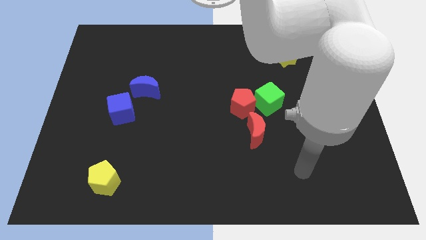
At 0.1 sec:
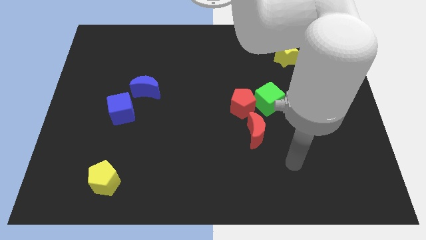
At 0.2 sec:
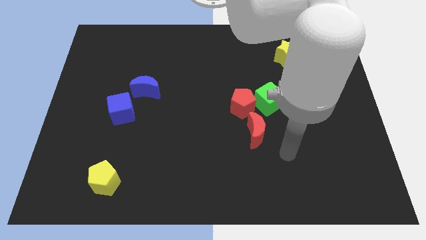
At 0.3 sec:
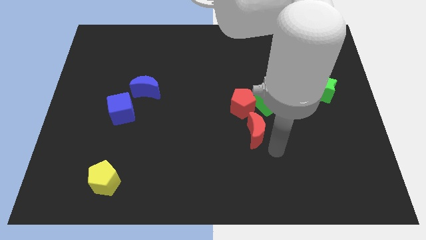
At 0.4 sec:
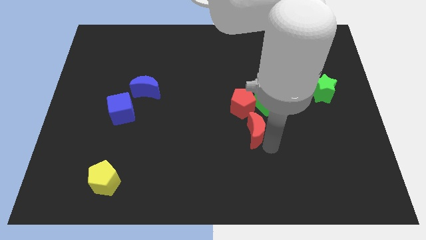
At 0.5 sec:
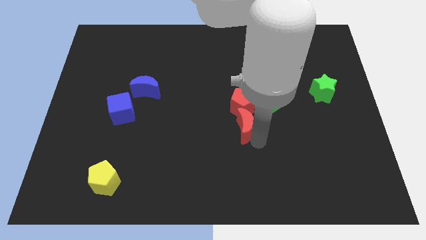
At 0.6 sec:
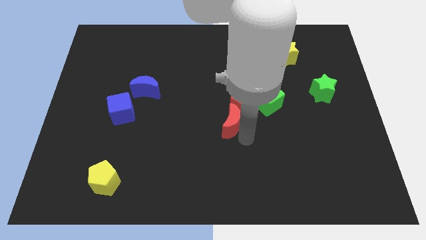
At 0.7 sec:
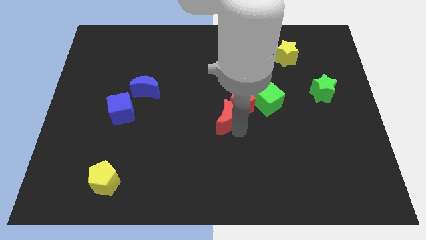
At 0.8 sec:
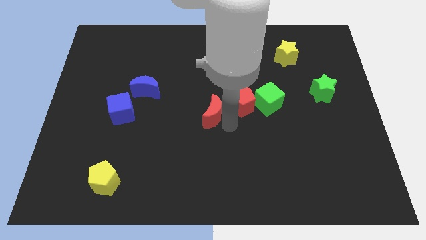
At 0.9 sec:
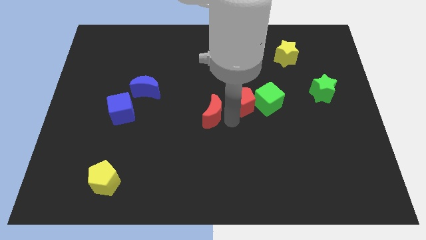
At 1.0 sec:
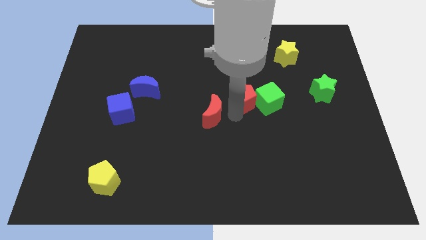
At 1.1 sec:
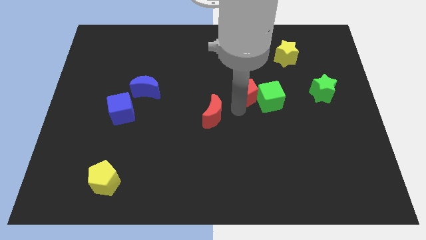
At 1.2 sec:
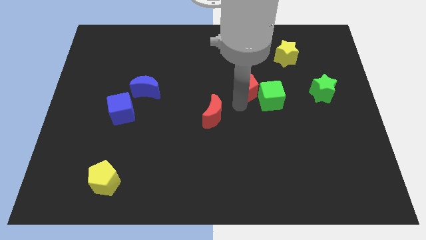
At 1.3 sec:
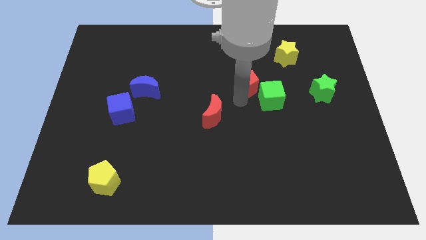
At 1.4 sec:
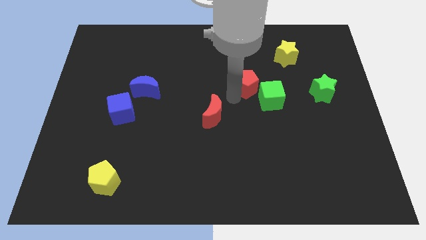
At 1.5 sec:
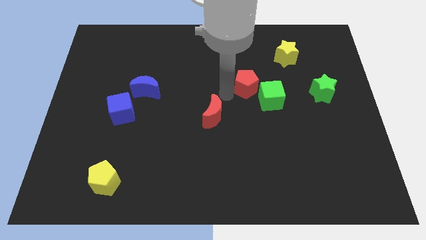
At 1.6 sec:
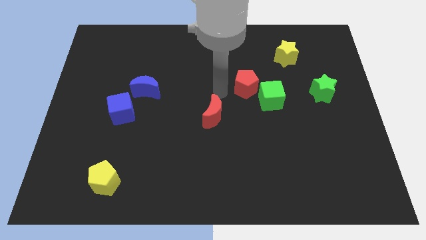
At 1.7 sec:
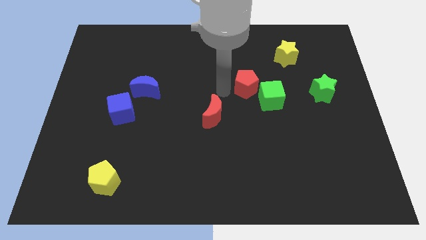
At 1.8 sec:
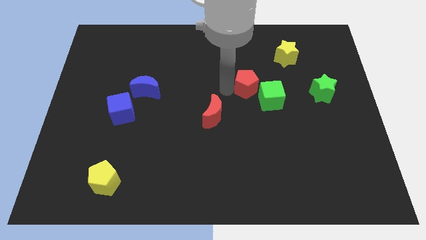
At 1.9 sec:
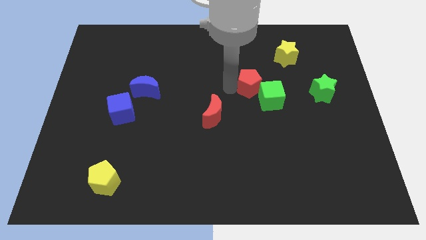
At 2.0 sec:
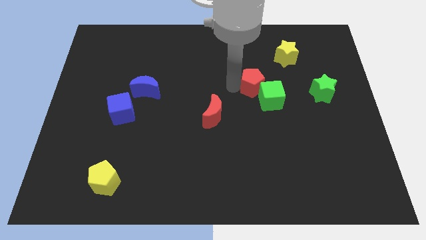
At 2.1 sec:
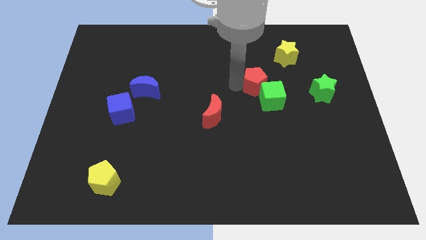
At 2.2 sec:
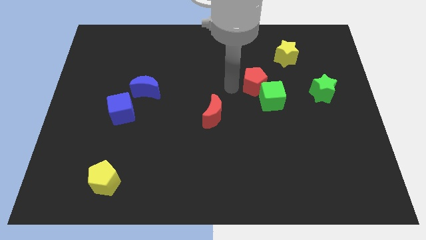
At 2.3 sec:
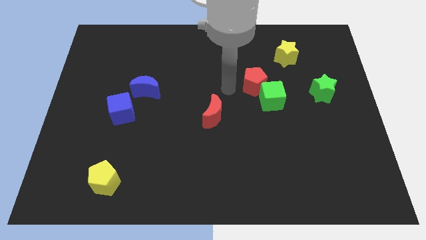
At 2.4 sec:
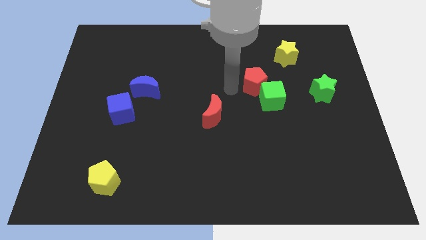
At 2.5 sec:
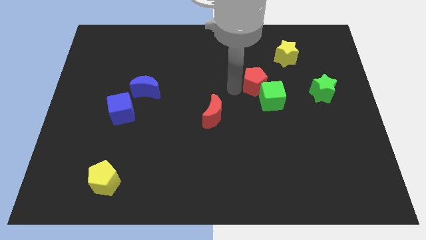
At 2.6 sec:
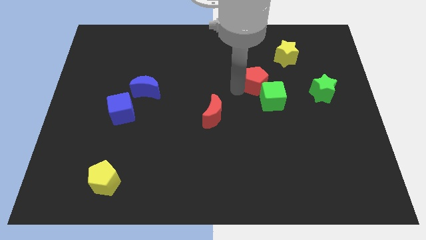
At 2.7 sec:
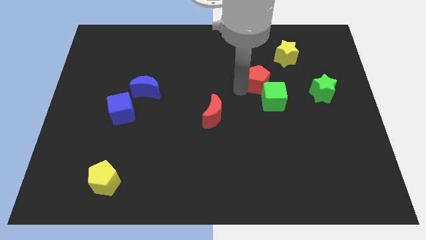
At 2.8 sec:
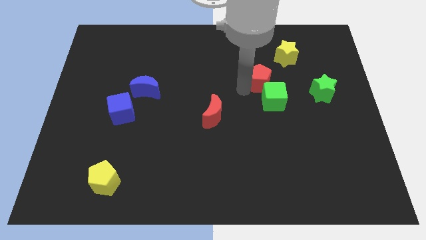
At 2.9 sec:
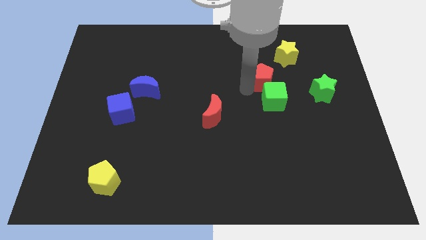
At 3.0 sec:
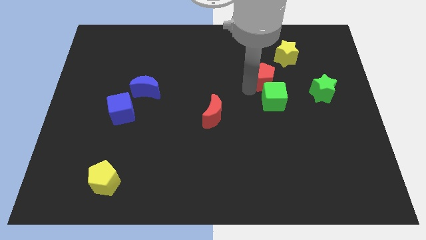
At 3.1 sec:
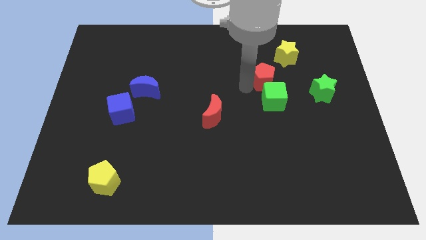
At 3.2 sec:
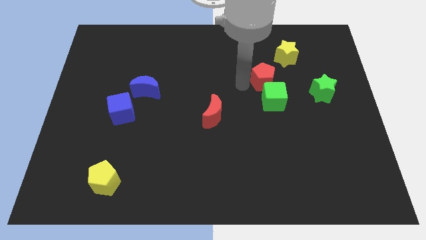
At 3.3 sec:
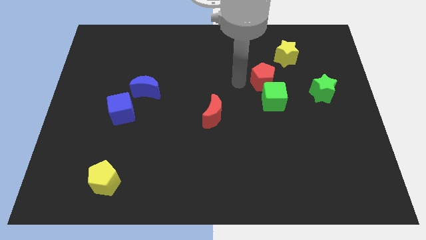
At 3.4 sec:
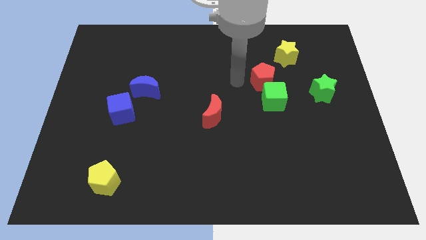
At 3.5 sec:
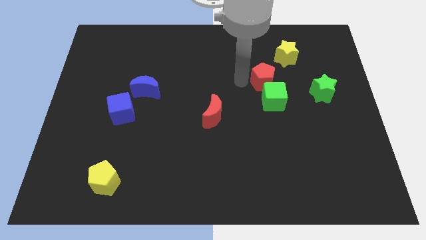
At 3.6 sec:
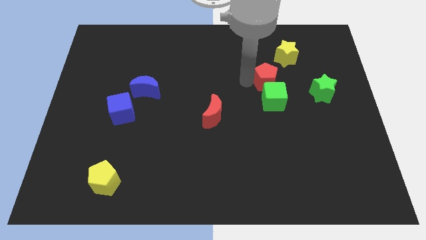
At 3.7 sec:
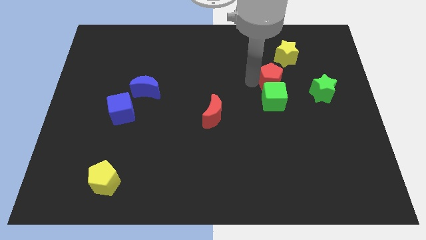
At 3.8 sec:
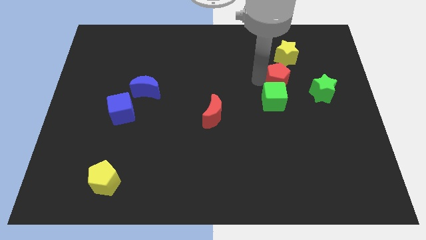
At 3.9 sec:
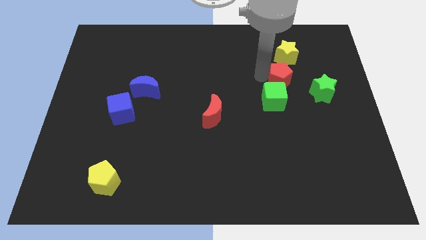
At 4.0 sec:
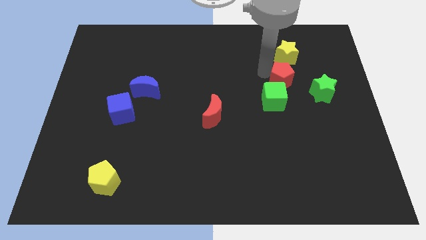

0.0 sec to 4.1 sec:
slide the red pentagon slightly to the right

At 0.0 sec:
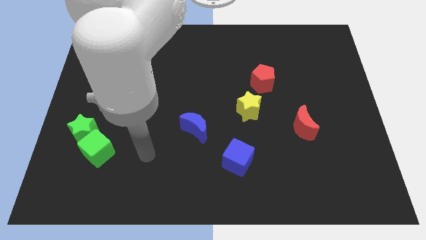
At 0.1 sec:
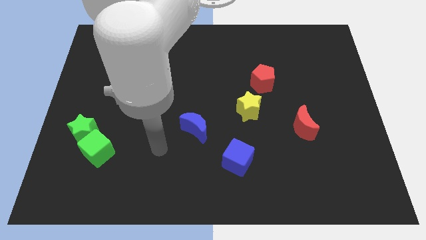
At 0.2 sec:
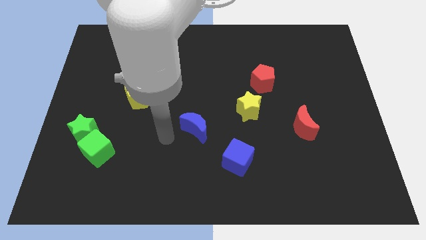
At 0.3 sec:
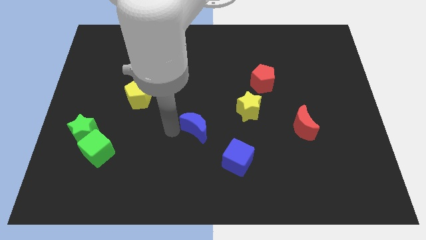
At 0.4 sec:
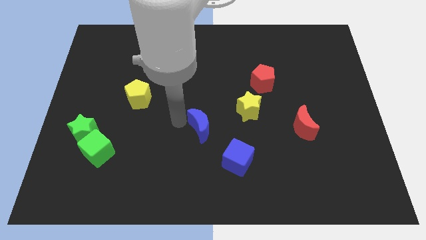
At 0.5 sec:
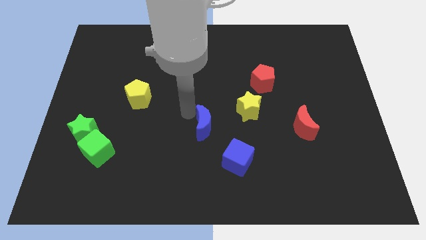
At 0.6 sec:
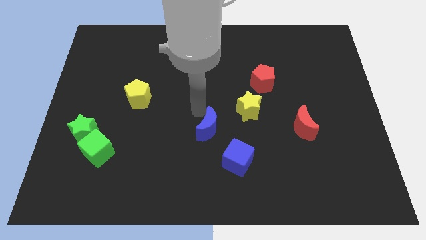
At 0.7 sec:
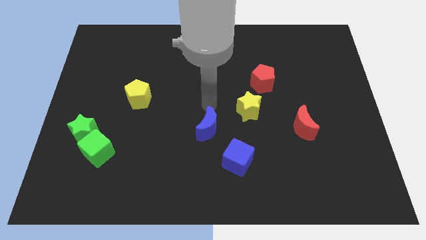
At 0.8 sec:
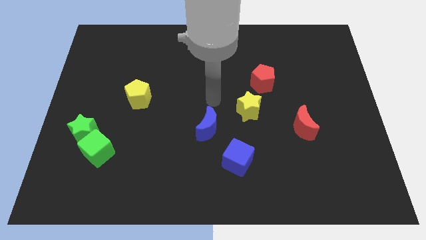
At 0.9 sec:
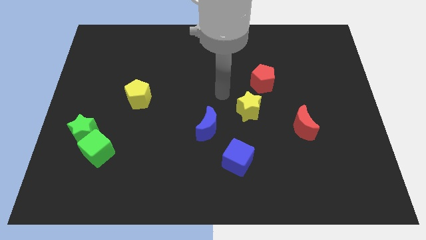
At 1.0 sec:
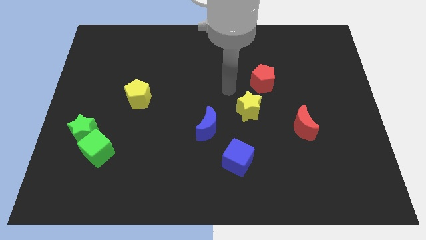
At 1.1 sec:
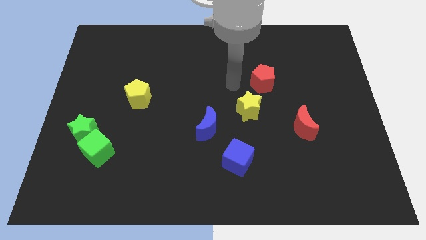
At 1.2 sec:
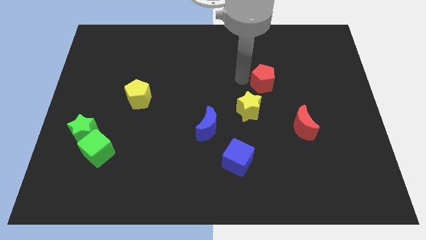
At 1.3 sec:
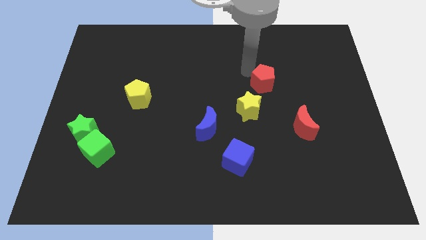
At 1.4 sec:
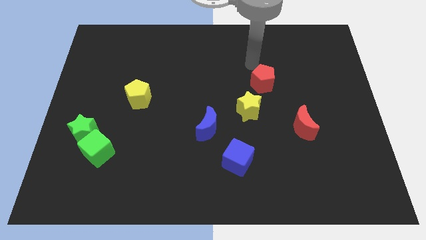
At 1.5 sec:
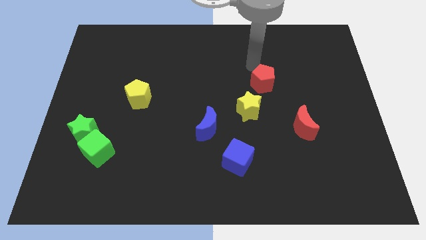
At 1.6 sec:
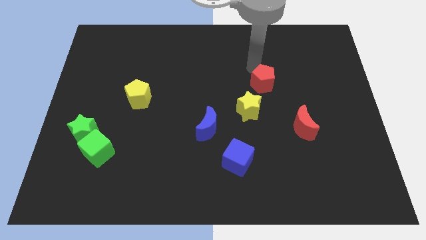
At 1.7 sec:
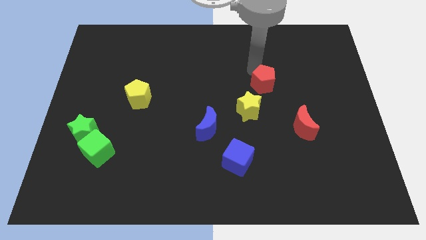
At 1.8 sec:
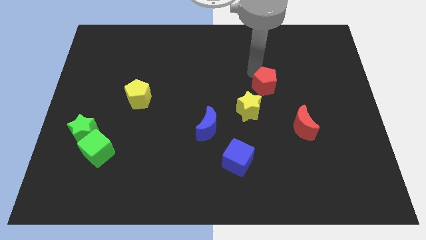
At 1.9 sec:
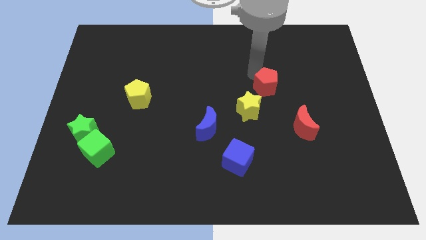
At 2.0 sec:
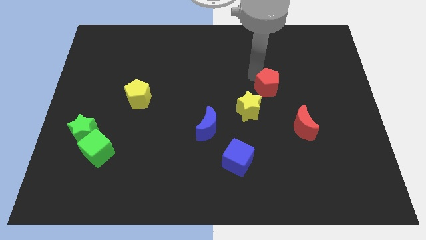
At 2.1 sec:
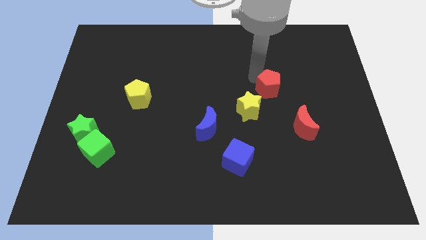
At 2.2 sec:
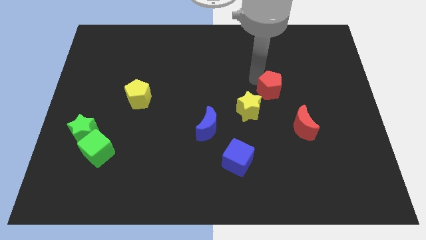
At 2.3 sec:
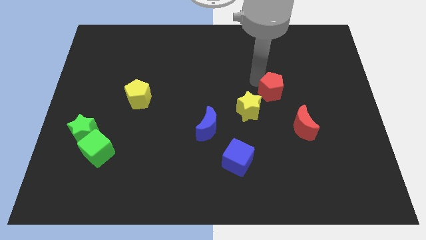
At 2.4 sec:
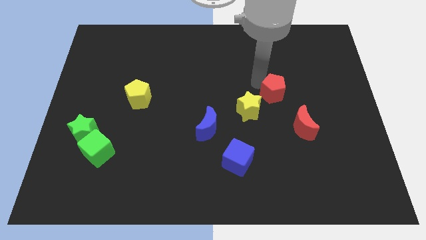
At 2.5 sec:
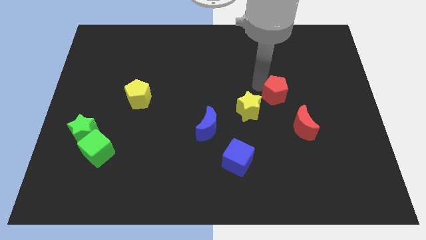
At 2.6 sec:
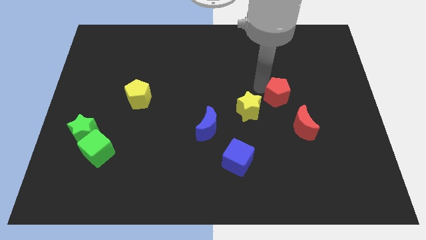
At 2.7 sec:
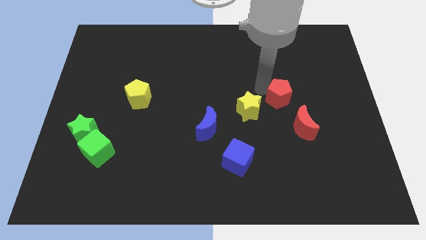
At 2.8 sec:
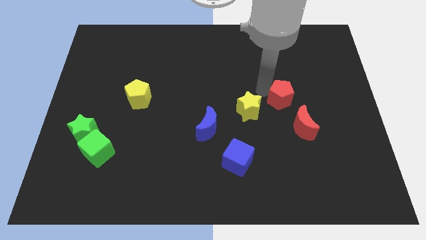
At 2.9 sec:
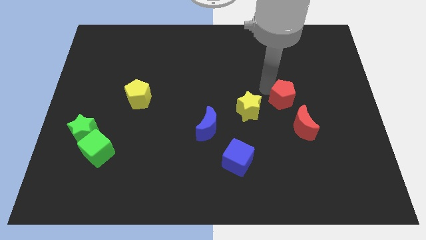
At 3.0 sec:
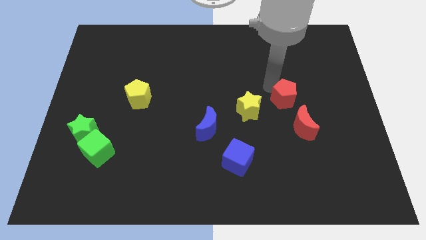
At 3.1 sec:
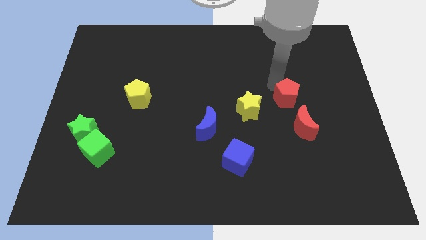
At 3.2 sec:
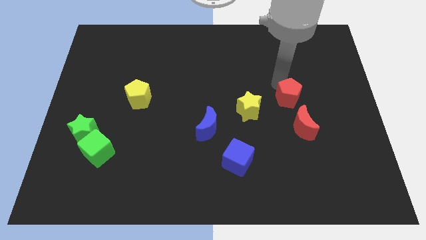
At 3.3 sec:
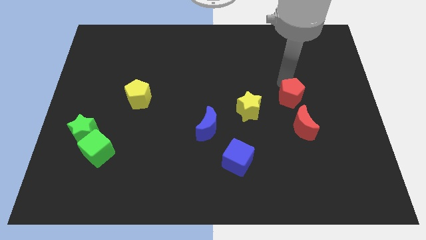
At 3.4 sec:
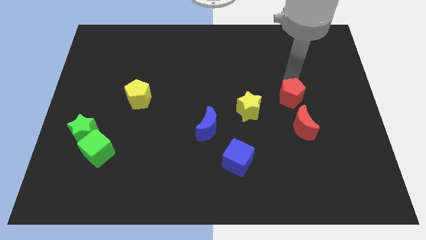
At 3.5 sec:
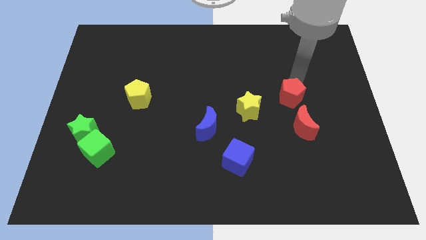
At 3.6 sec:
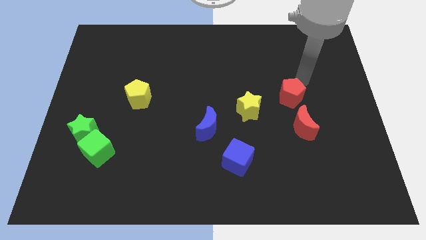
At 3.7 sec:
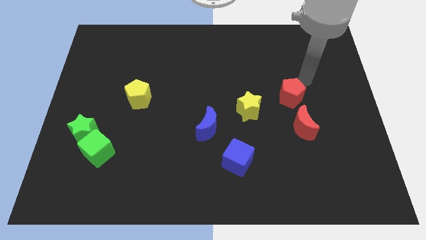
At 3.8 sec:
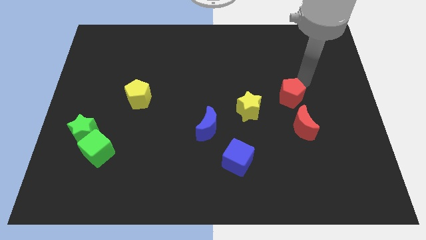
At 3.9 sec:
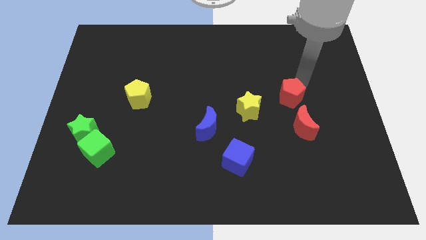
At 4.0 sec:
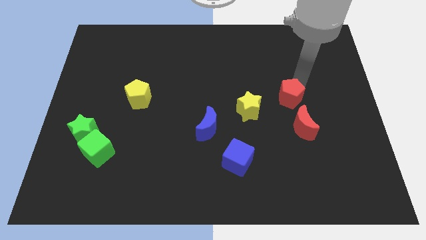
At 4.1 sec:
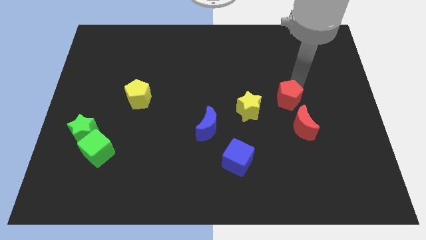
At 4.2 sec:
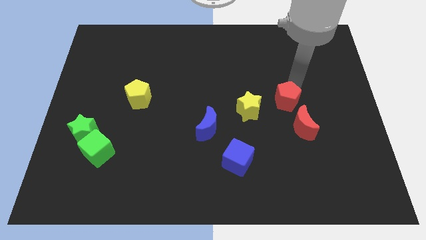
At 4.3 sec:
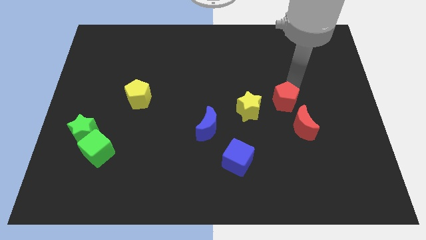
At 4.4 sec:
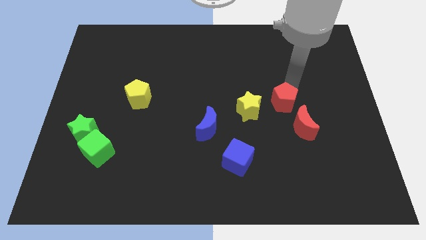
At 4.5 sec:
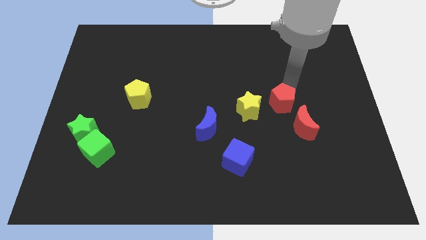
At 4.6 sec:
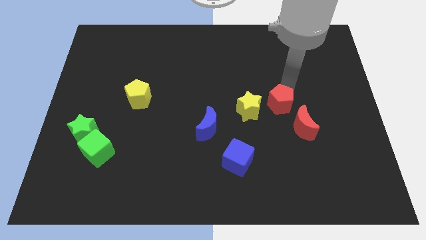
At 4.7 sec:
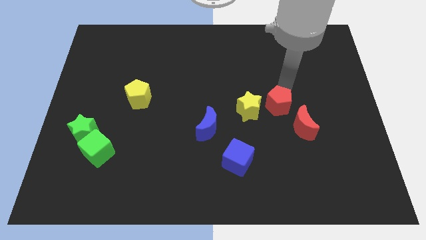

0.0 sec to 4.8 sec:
slightly slide the red pentagon down
